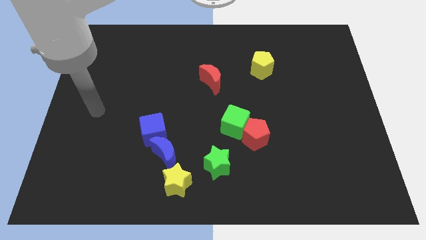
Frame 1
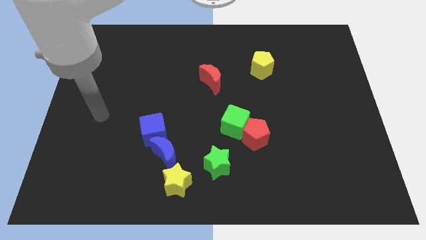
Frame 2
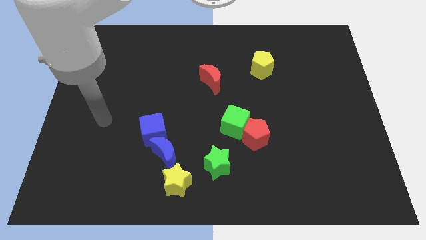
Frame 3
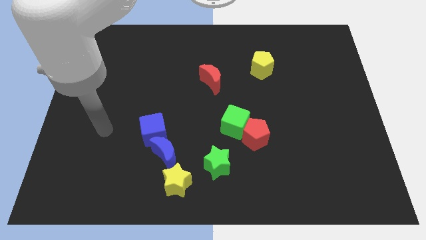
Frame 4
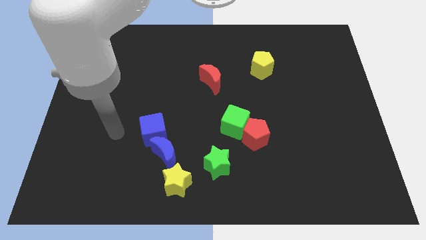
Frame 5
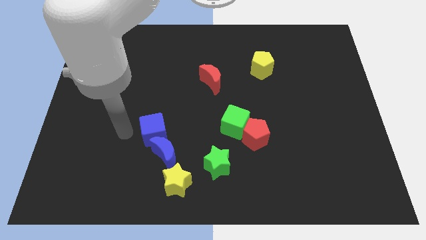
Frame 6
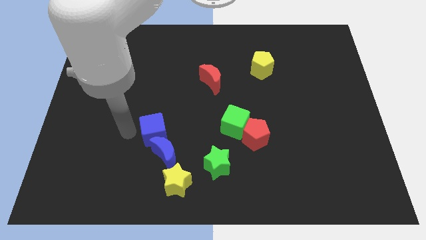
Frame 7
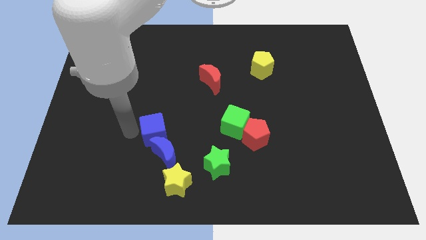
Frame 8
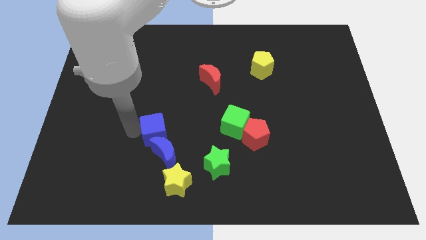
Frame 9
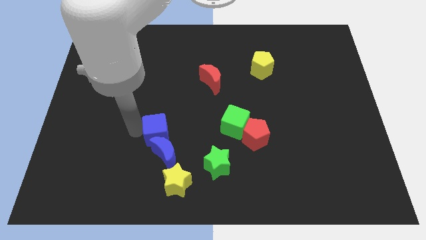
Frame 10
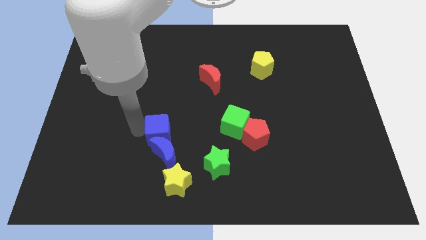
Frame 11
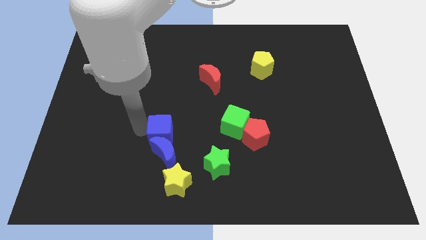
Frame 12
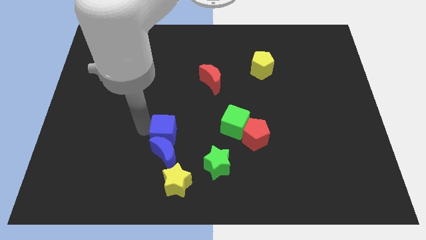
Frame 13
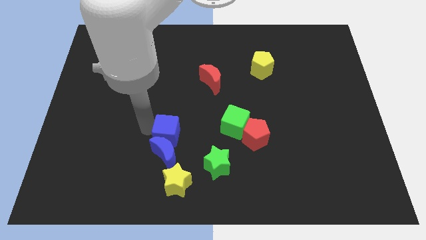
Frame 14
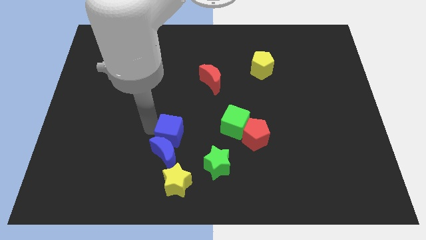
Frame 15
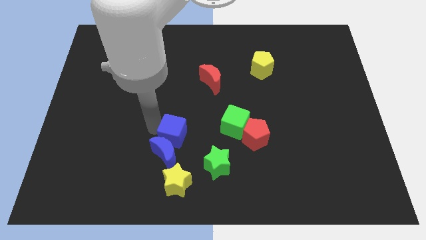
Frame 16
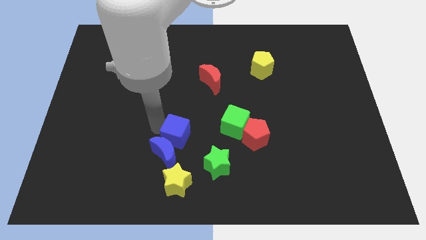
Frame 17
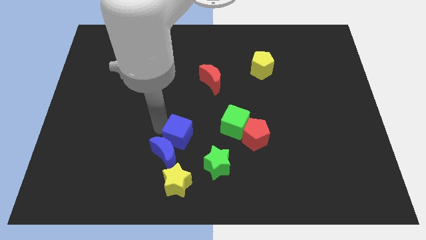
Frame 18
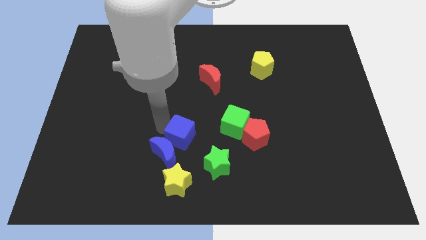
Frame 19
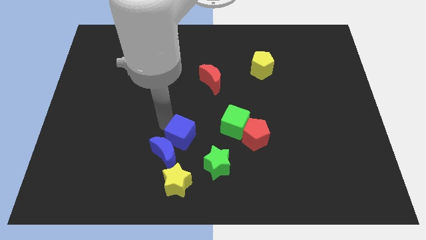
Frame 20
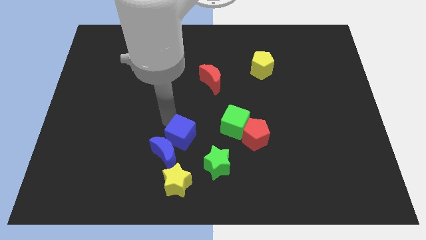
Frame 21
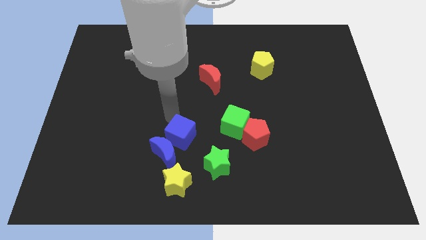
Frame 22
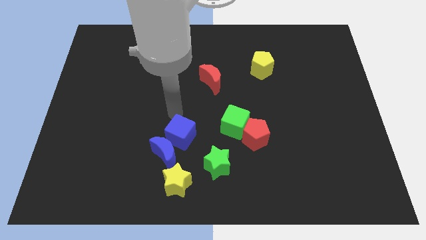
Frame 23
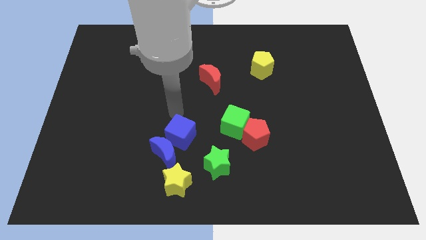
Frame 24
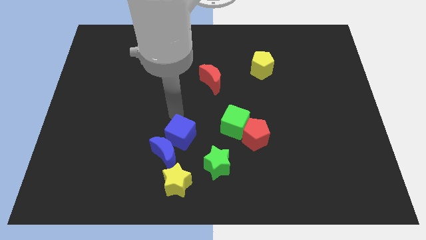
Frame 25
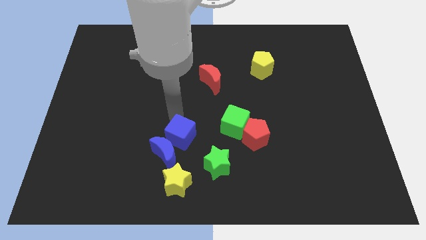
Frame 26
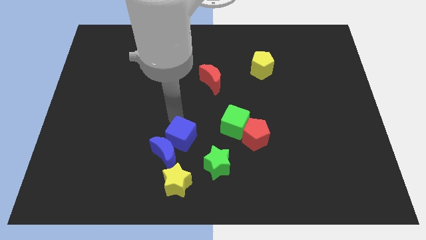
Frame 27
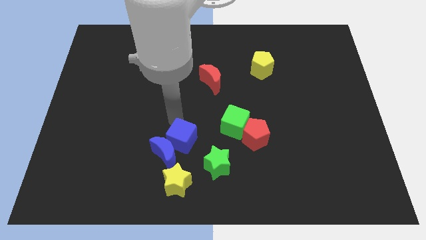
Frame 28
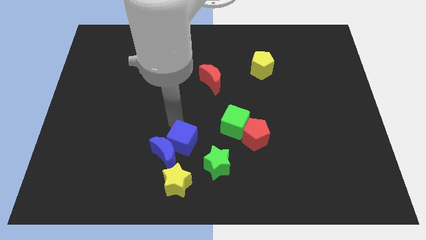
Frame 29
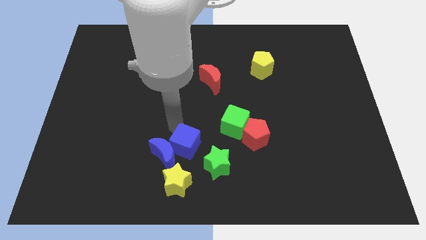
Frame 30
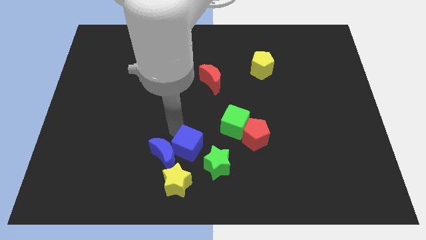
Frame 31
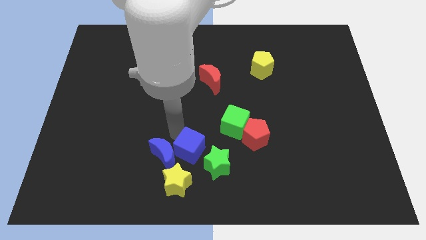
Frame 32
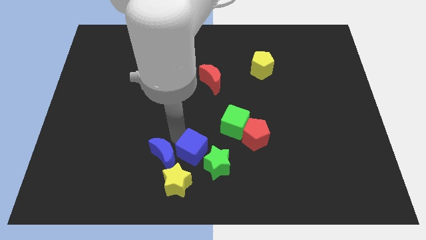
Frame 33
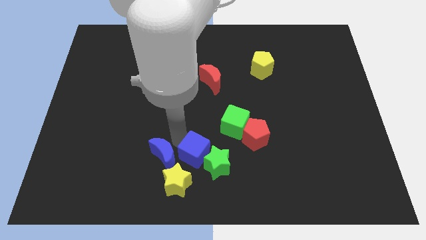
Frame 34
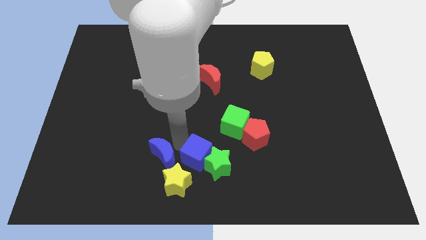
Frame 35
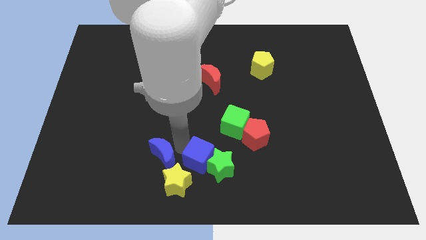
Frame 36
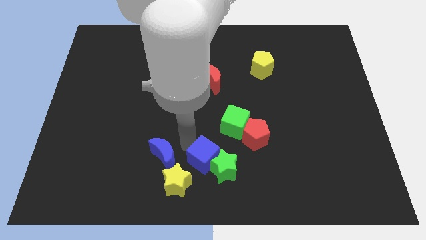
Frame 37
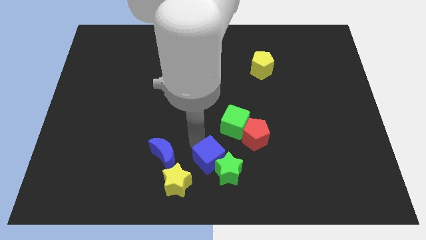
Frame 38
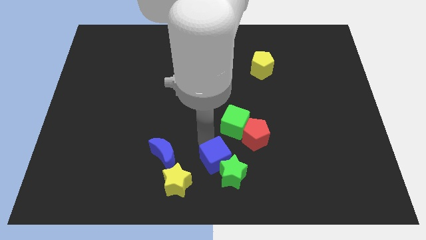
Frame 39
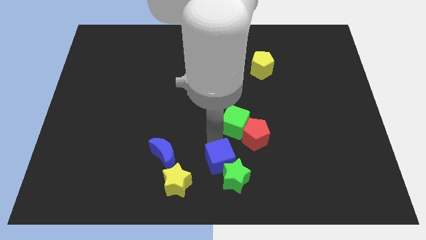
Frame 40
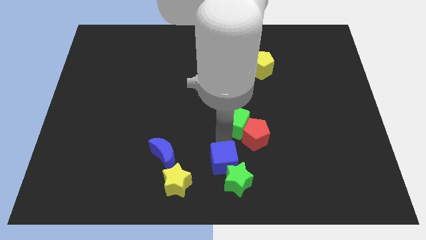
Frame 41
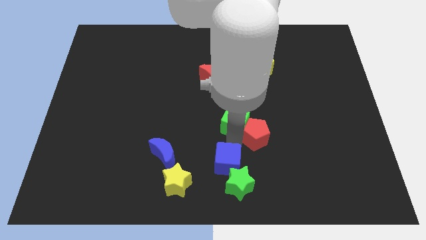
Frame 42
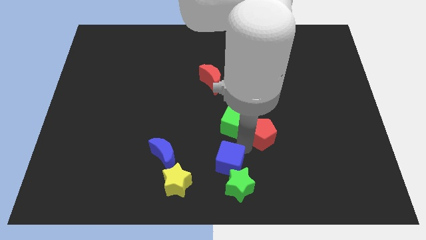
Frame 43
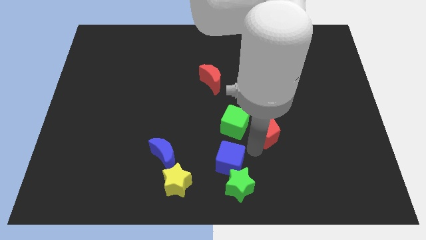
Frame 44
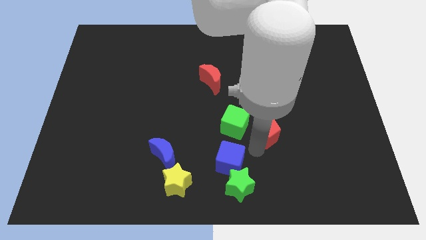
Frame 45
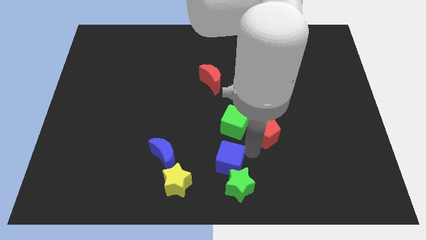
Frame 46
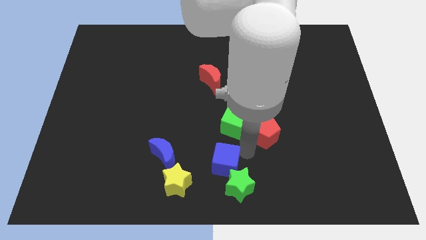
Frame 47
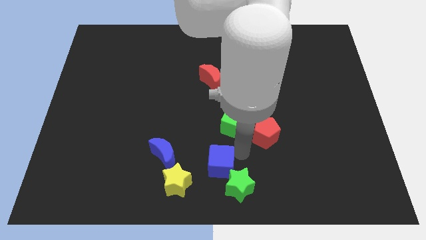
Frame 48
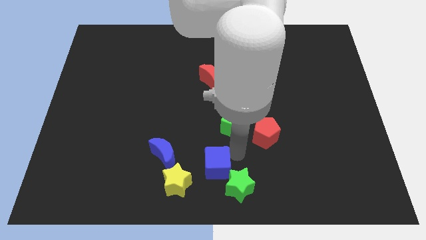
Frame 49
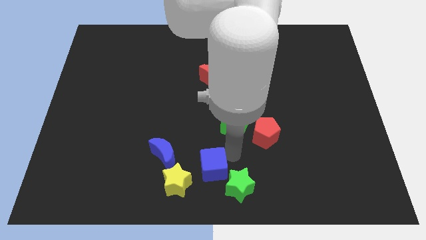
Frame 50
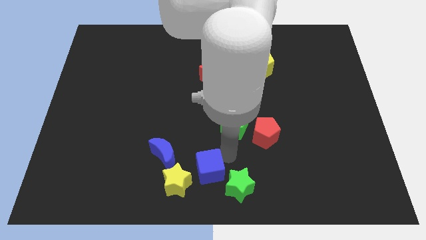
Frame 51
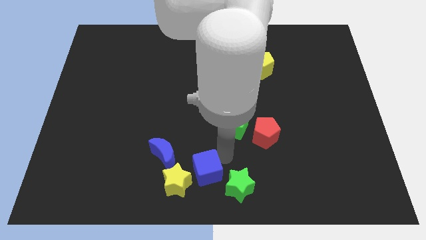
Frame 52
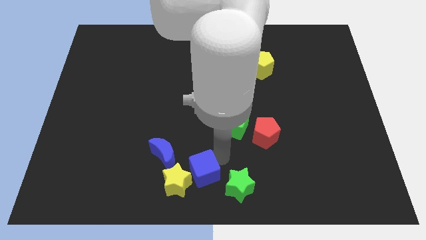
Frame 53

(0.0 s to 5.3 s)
slide the blue cube next to the yellow star

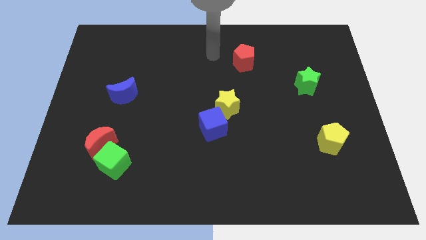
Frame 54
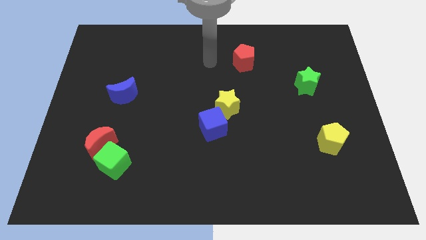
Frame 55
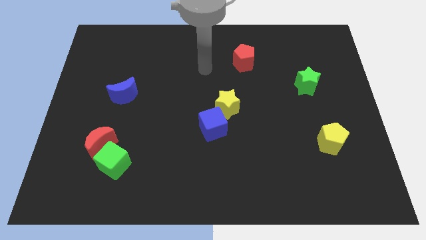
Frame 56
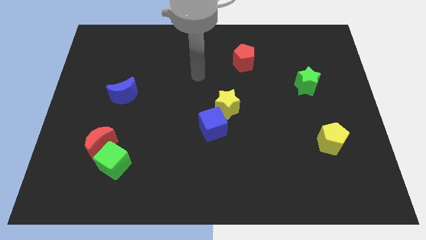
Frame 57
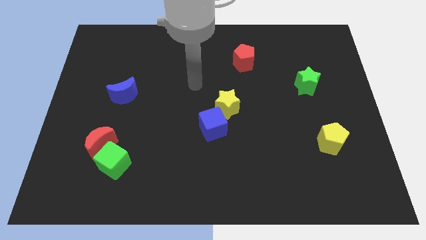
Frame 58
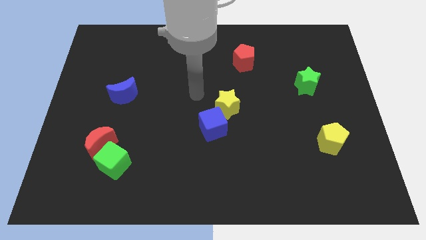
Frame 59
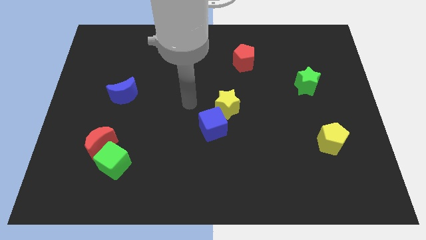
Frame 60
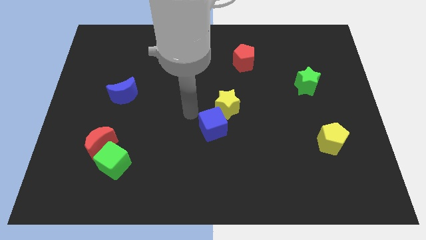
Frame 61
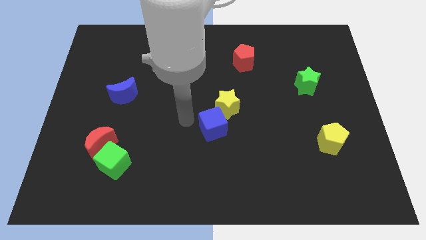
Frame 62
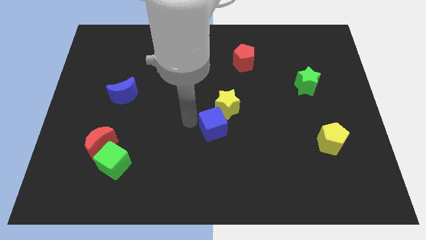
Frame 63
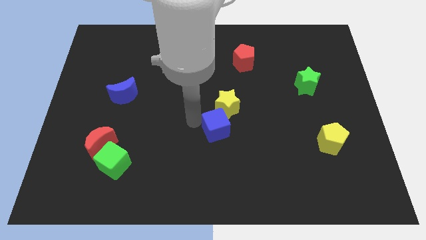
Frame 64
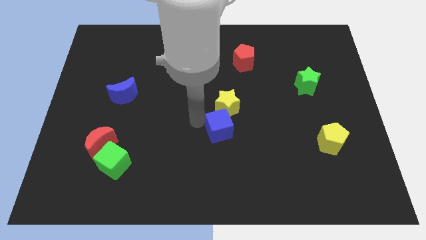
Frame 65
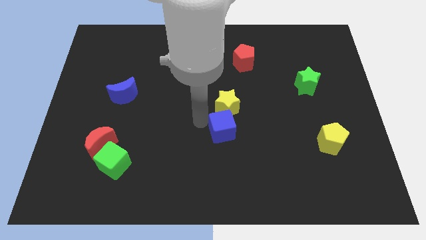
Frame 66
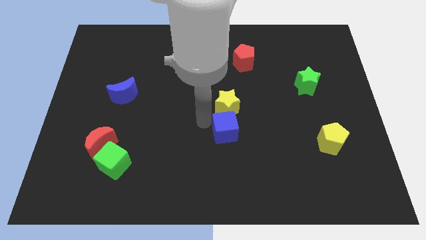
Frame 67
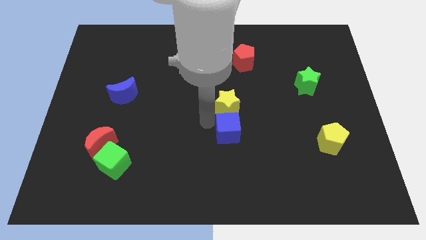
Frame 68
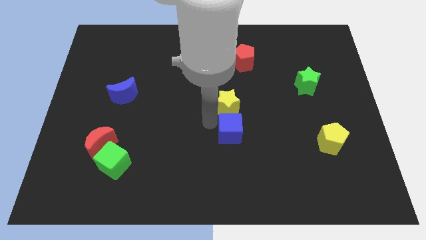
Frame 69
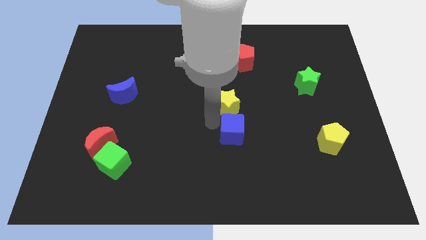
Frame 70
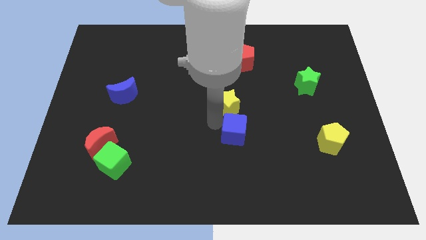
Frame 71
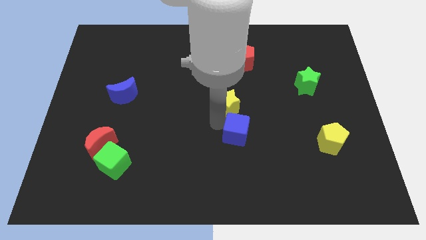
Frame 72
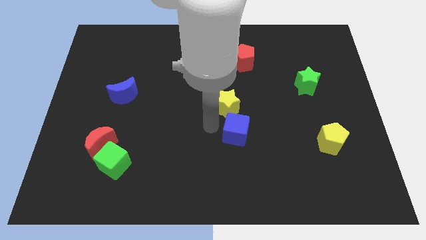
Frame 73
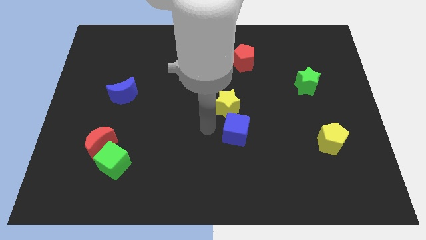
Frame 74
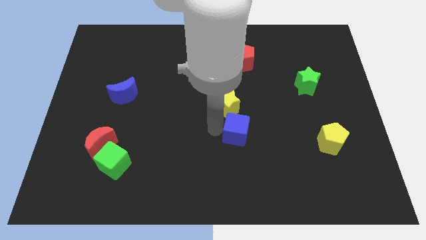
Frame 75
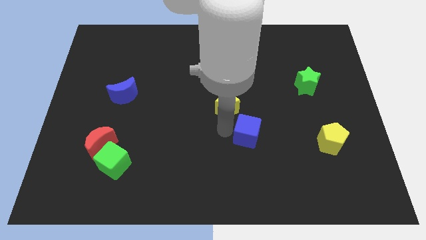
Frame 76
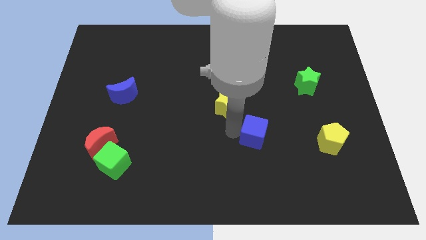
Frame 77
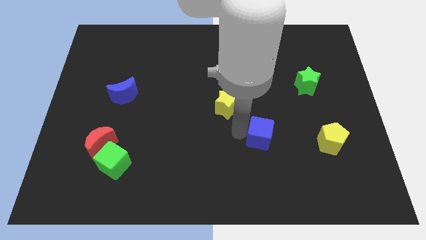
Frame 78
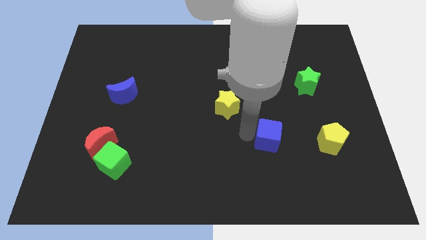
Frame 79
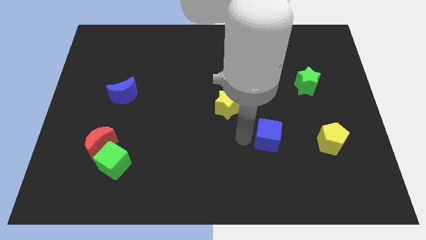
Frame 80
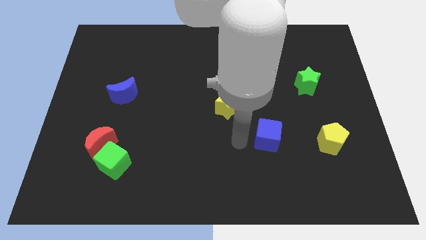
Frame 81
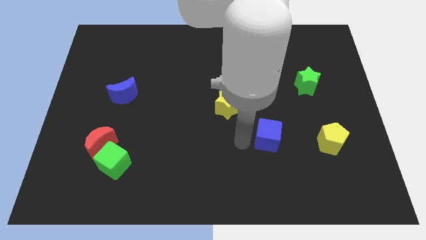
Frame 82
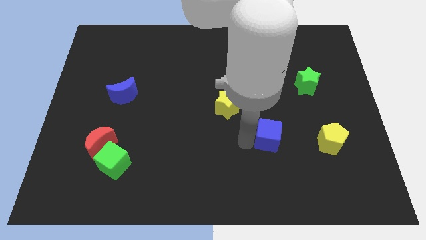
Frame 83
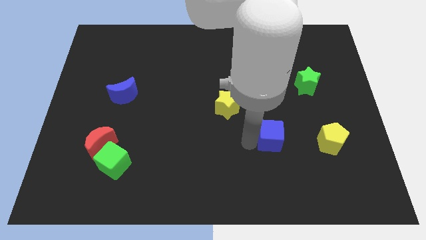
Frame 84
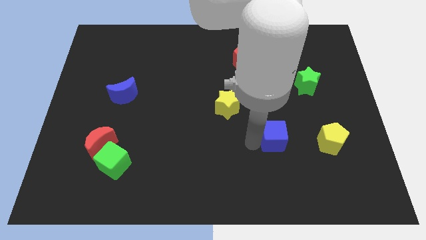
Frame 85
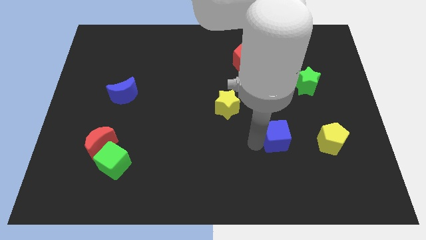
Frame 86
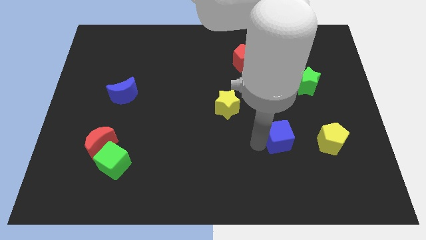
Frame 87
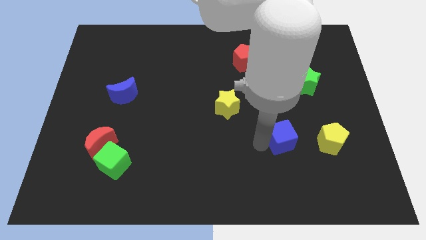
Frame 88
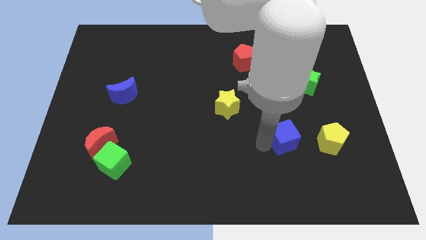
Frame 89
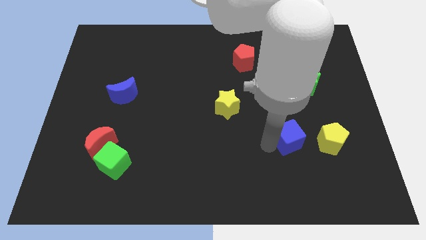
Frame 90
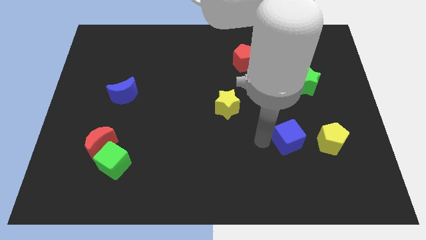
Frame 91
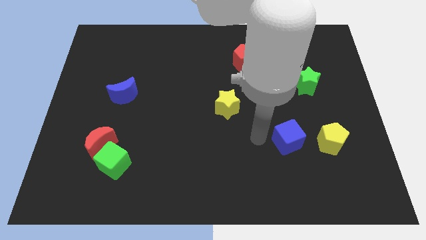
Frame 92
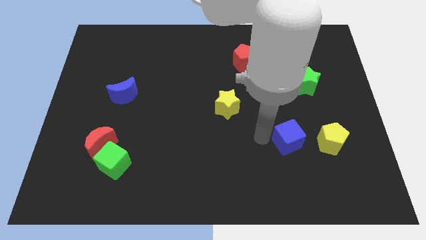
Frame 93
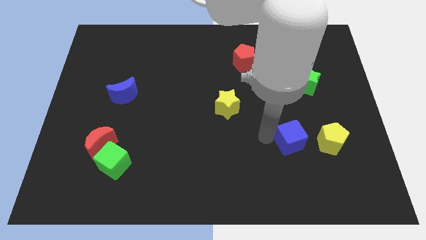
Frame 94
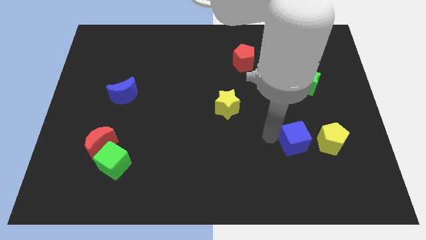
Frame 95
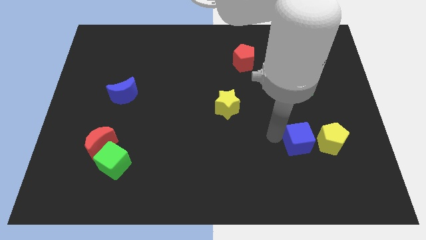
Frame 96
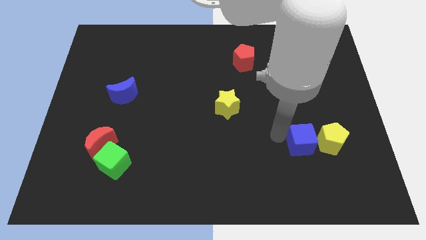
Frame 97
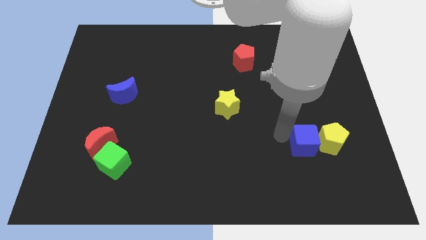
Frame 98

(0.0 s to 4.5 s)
slide the blue cube to the yellow pentagon
